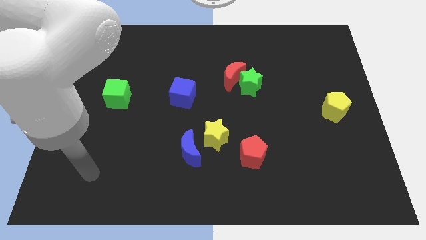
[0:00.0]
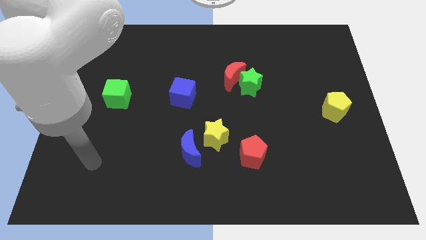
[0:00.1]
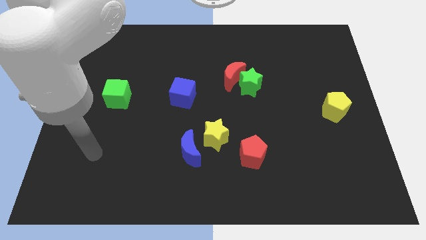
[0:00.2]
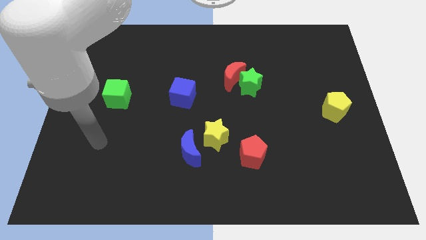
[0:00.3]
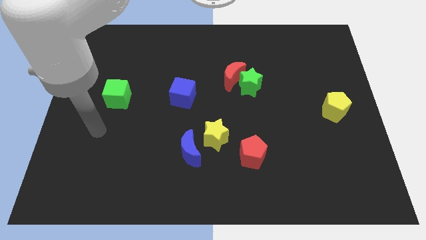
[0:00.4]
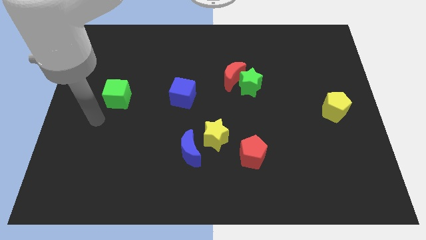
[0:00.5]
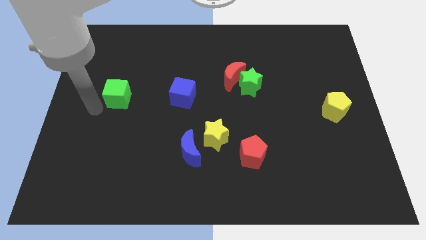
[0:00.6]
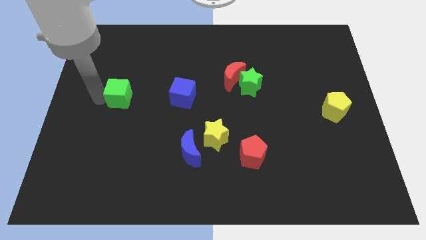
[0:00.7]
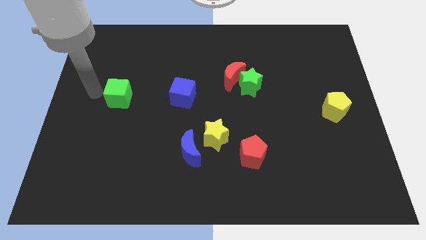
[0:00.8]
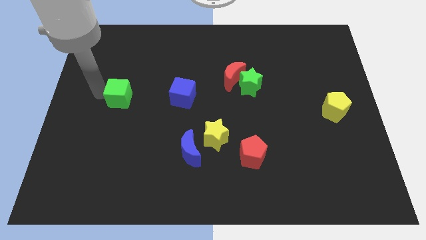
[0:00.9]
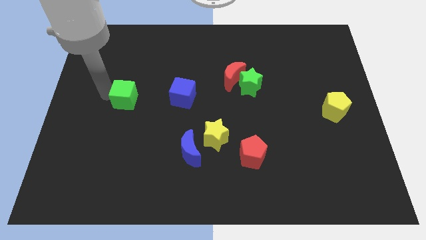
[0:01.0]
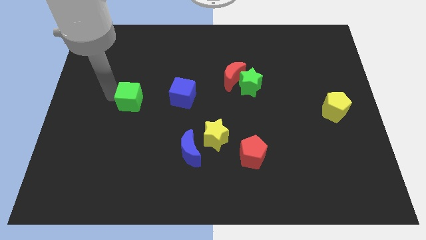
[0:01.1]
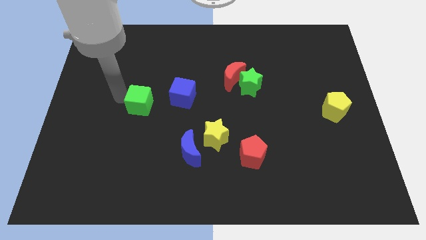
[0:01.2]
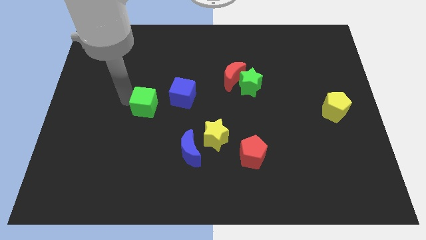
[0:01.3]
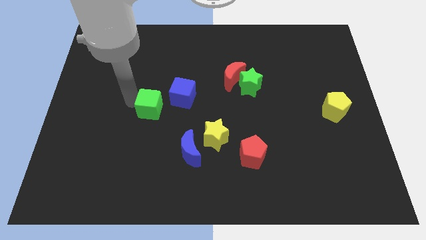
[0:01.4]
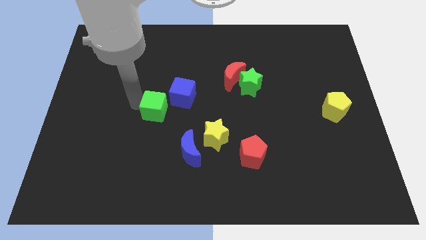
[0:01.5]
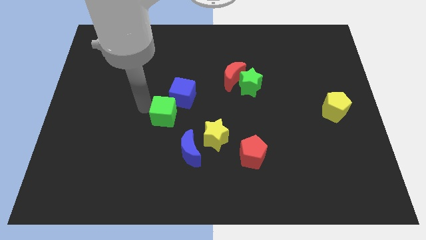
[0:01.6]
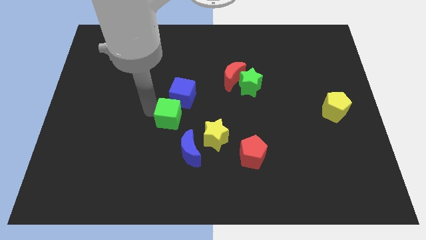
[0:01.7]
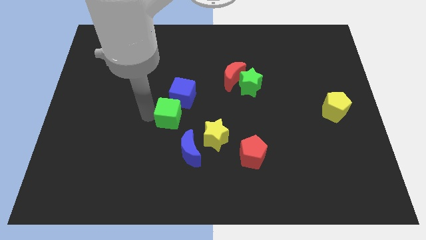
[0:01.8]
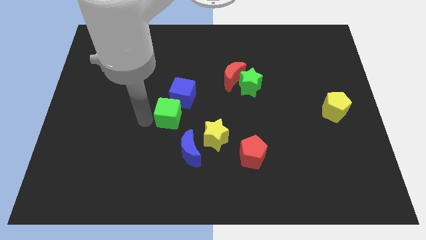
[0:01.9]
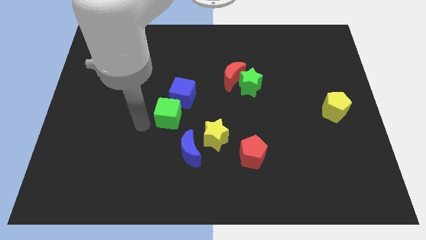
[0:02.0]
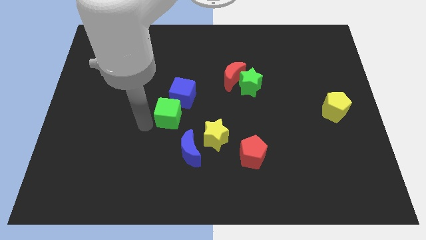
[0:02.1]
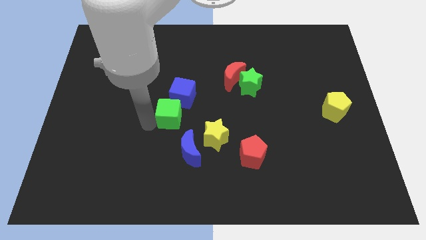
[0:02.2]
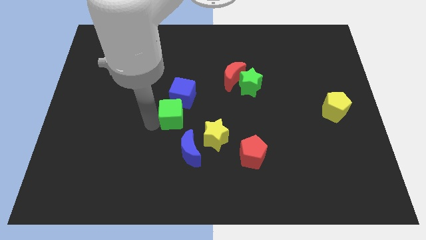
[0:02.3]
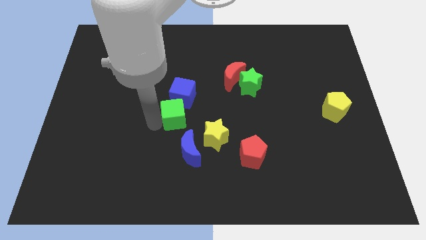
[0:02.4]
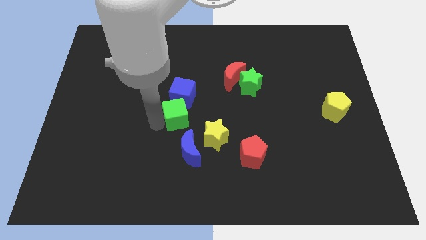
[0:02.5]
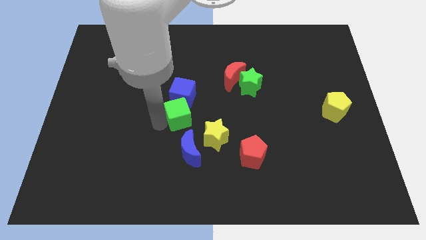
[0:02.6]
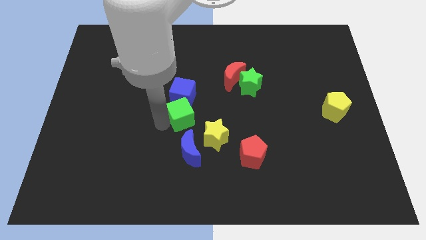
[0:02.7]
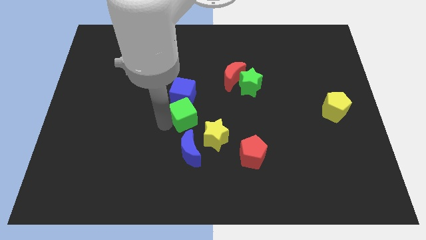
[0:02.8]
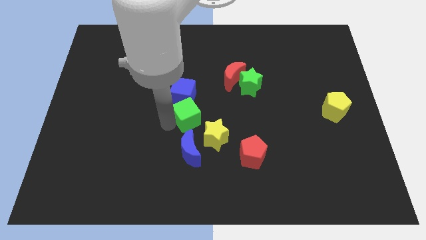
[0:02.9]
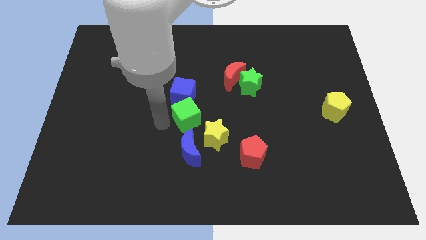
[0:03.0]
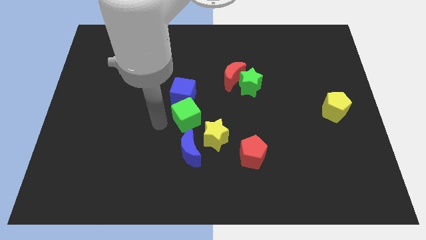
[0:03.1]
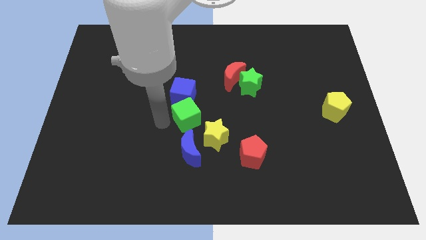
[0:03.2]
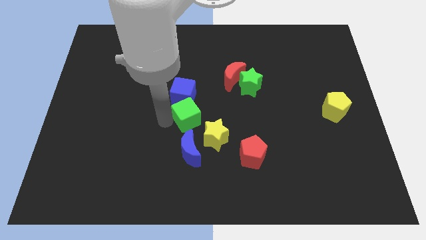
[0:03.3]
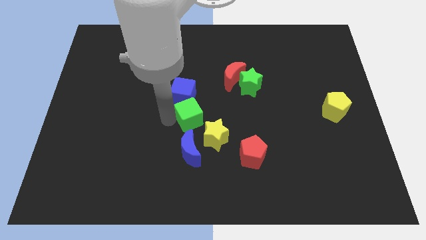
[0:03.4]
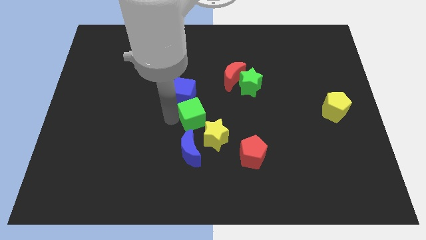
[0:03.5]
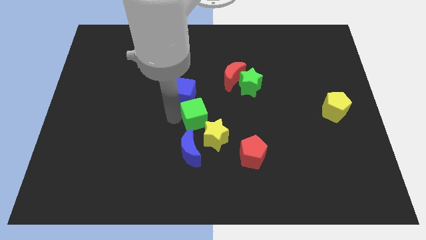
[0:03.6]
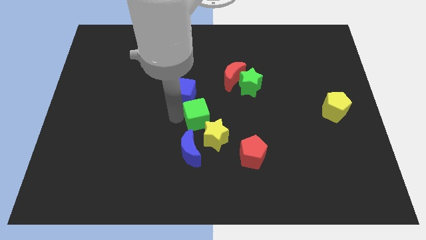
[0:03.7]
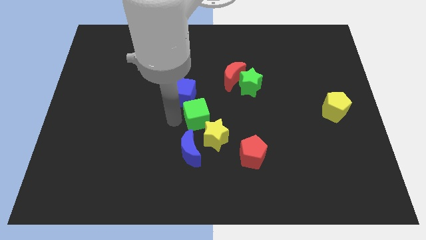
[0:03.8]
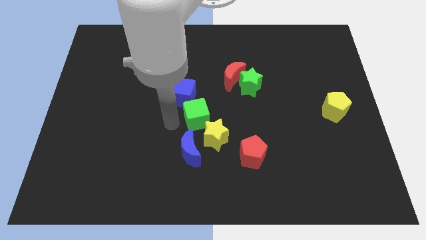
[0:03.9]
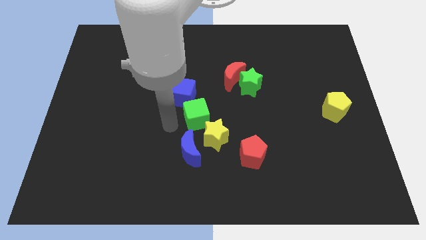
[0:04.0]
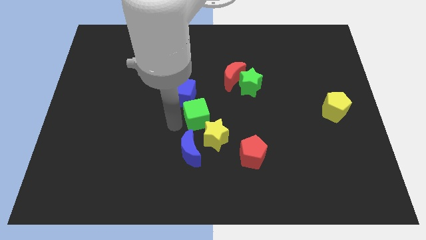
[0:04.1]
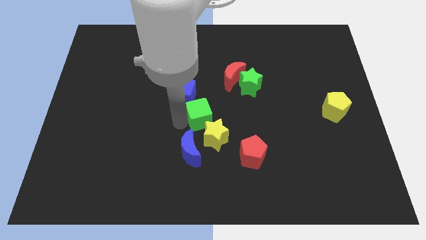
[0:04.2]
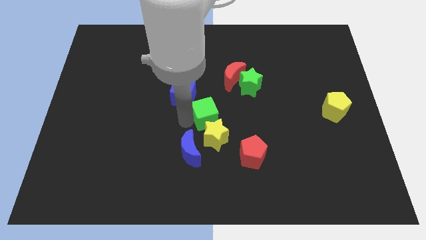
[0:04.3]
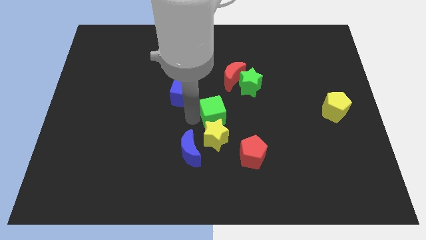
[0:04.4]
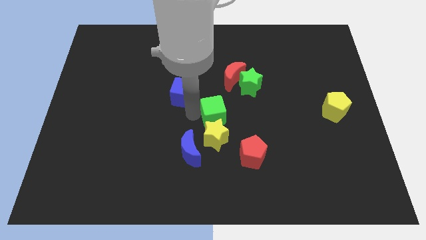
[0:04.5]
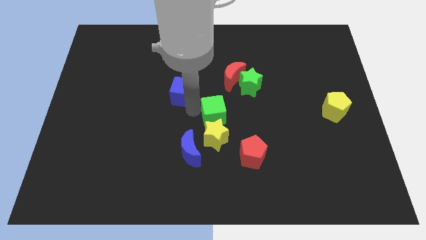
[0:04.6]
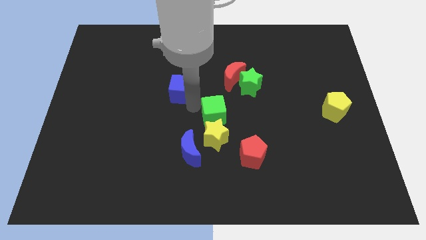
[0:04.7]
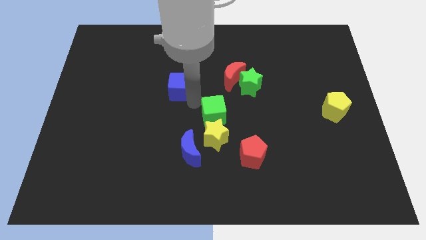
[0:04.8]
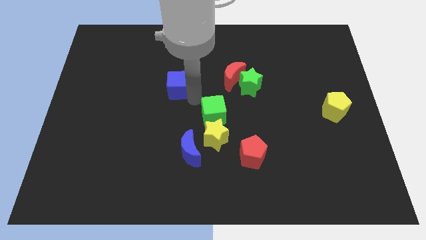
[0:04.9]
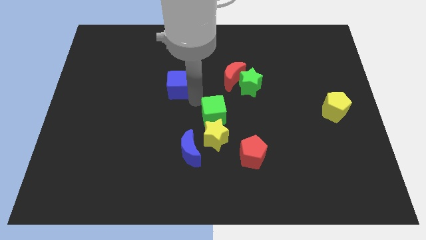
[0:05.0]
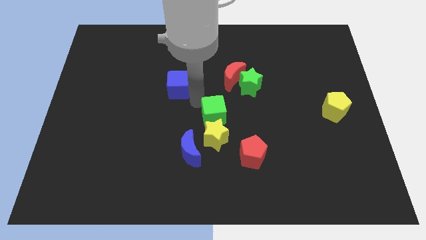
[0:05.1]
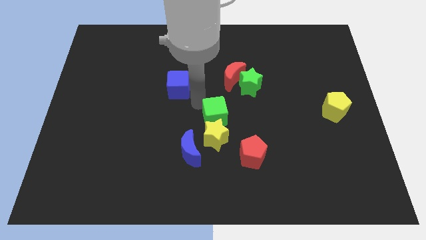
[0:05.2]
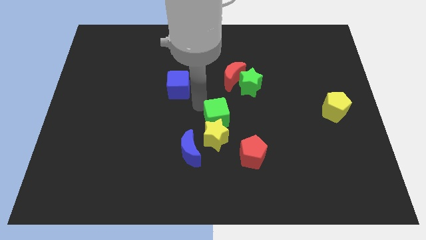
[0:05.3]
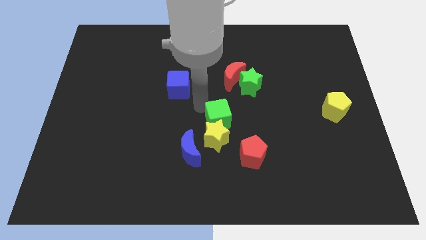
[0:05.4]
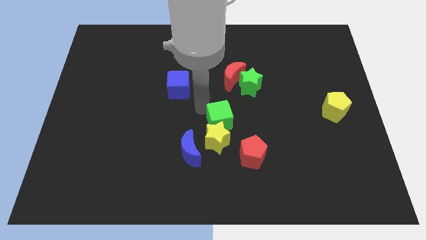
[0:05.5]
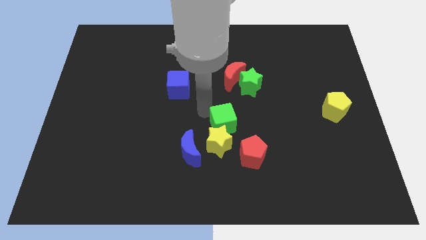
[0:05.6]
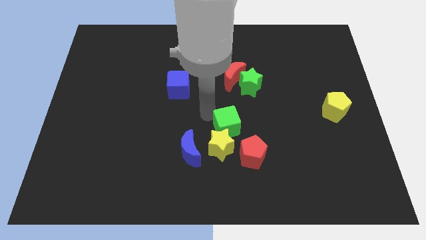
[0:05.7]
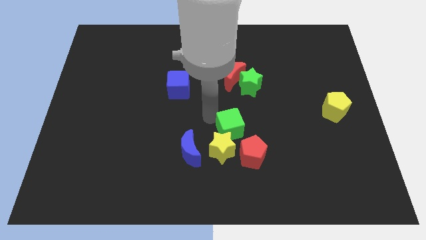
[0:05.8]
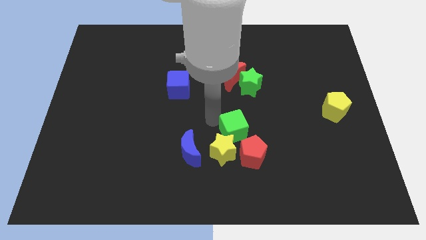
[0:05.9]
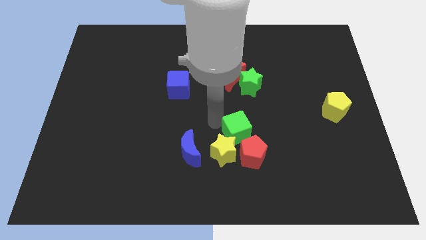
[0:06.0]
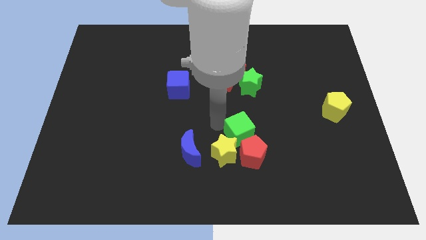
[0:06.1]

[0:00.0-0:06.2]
push the green cube to the red pentagon

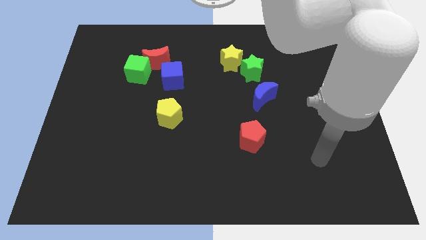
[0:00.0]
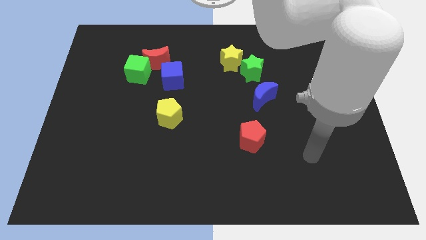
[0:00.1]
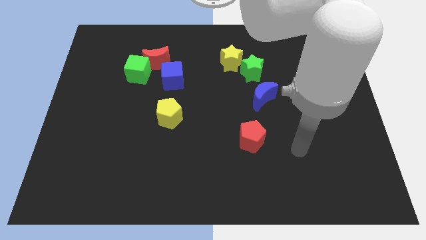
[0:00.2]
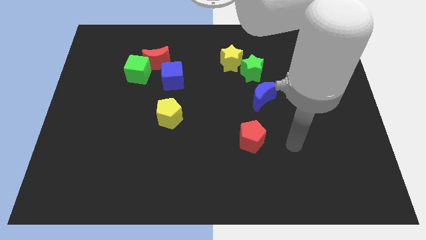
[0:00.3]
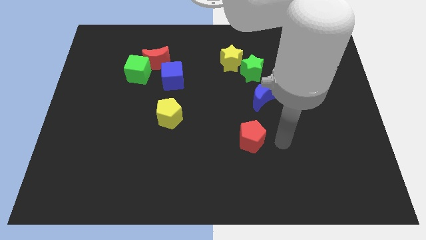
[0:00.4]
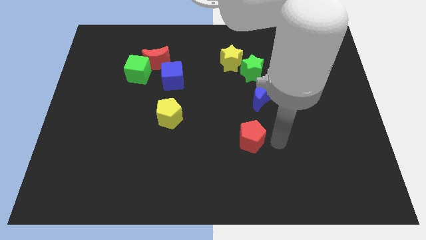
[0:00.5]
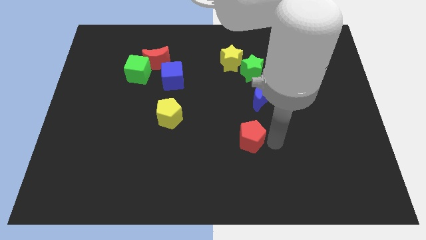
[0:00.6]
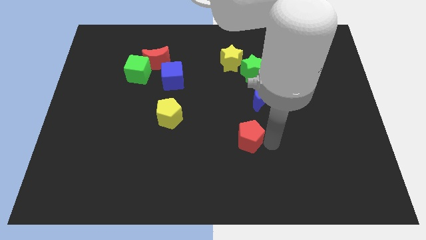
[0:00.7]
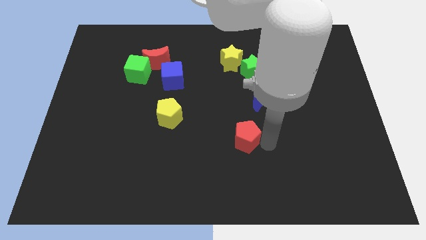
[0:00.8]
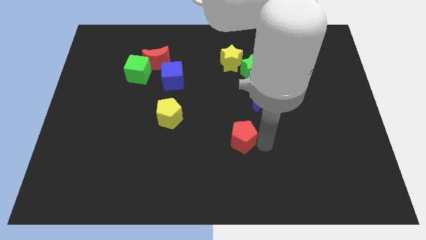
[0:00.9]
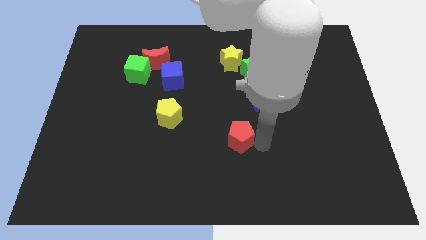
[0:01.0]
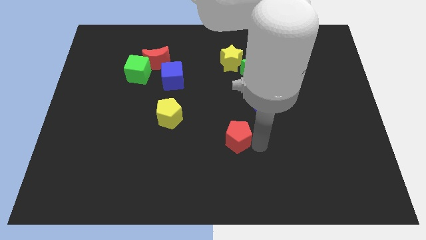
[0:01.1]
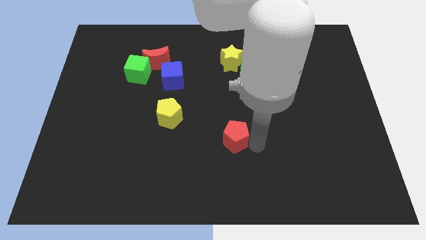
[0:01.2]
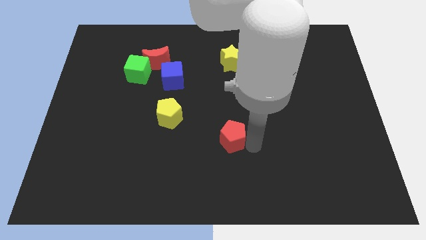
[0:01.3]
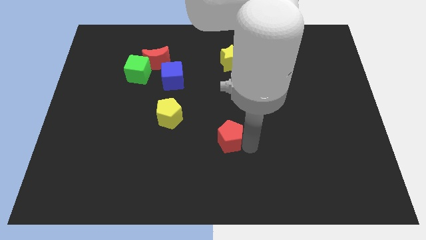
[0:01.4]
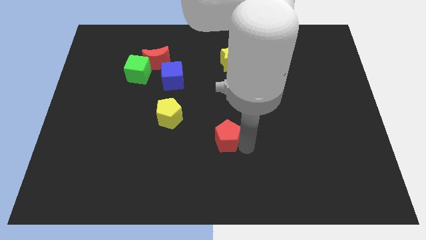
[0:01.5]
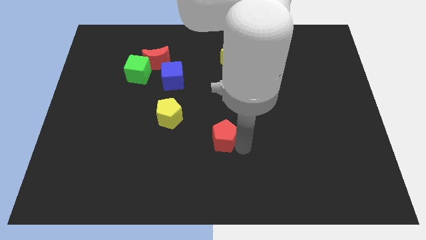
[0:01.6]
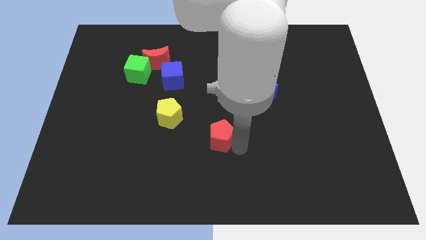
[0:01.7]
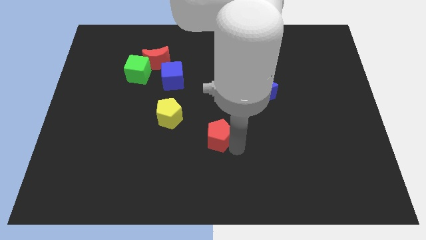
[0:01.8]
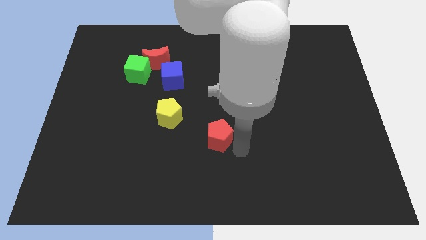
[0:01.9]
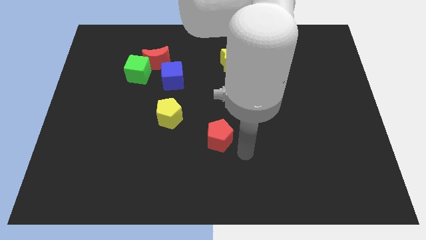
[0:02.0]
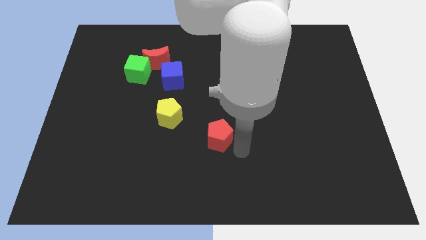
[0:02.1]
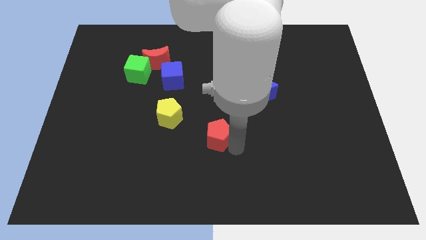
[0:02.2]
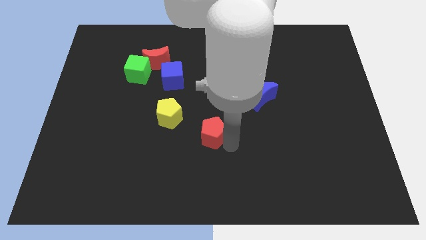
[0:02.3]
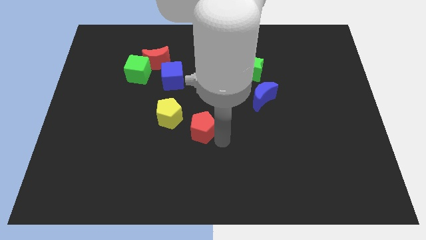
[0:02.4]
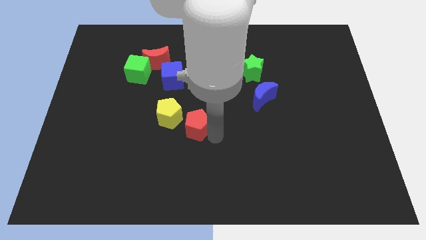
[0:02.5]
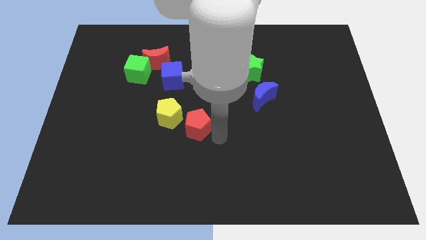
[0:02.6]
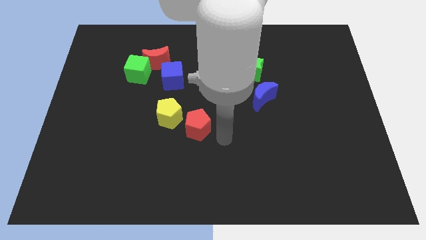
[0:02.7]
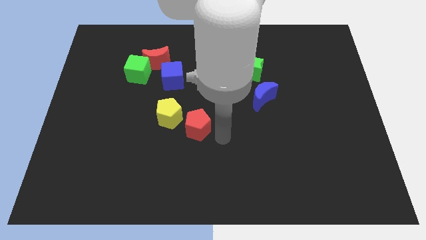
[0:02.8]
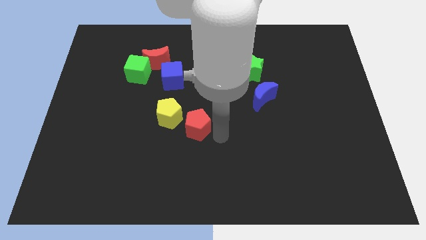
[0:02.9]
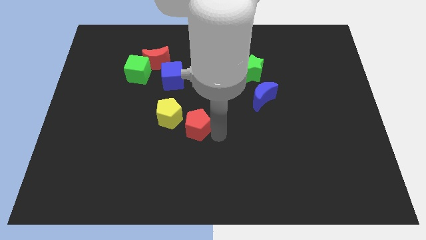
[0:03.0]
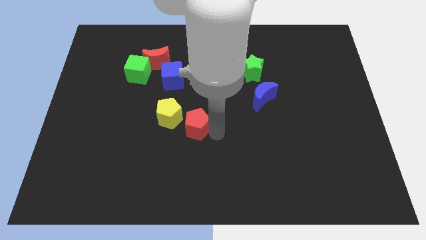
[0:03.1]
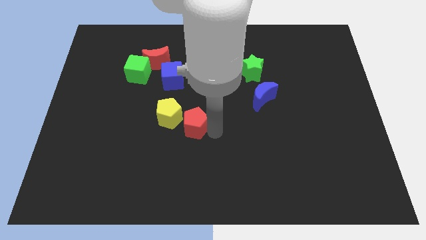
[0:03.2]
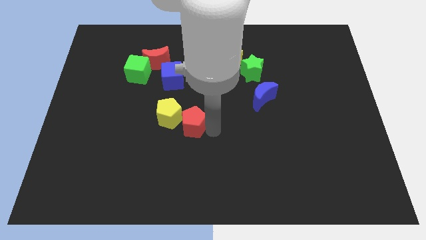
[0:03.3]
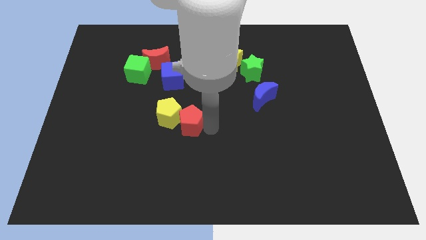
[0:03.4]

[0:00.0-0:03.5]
push the red pentagon towards the yellow pentagon
